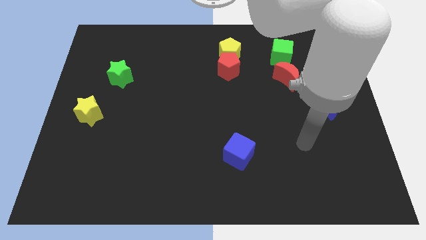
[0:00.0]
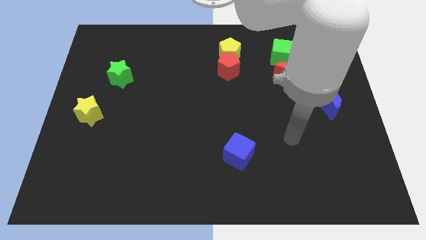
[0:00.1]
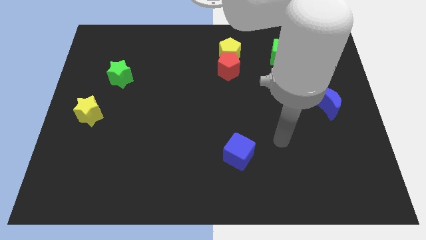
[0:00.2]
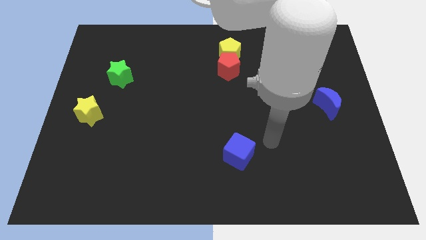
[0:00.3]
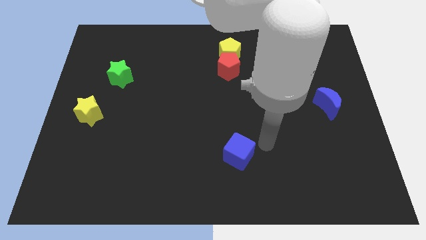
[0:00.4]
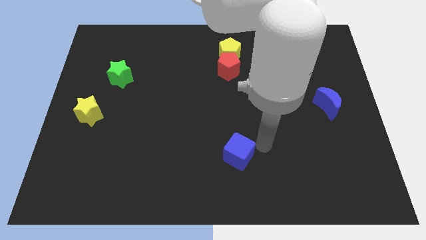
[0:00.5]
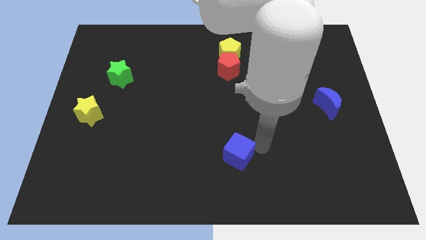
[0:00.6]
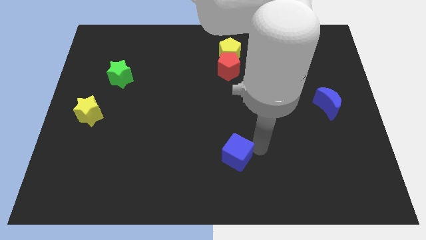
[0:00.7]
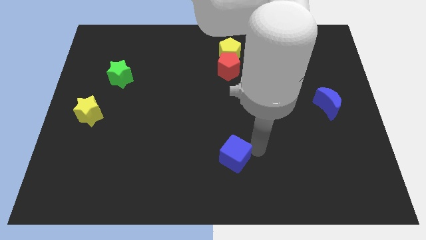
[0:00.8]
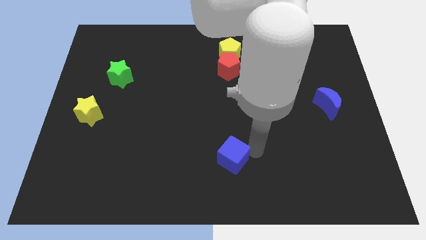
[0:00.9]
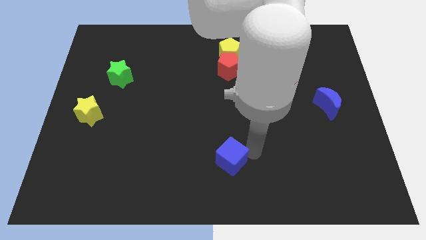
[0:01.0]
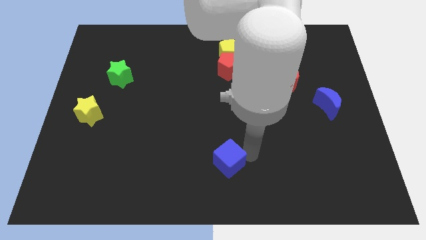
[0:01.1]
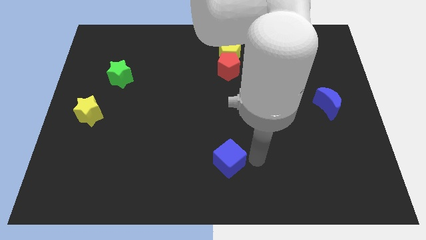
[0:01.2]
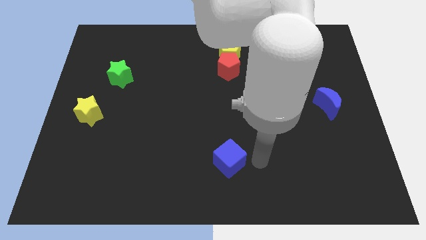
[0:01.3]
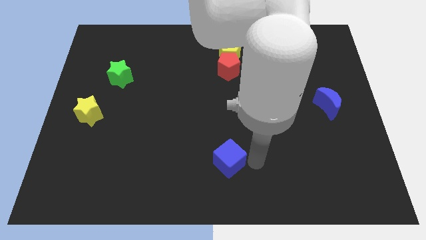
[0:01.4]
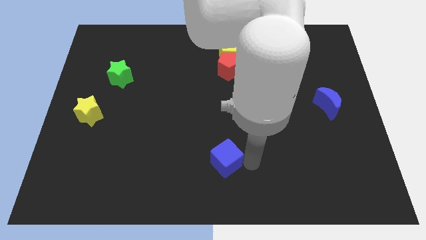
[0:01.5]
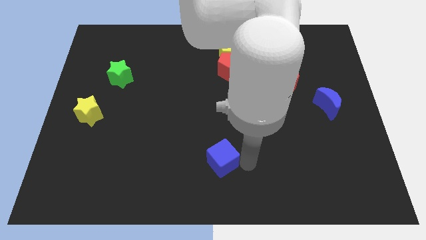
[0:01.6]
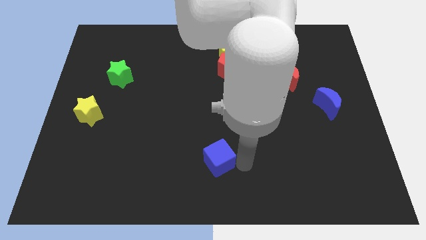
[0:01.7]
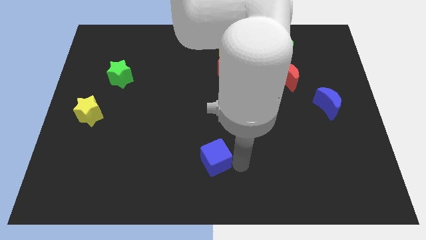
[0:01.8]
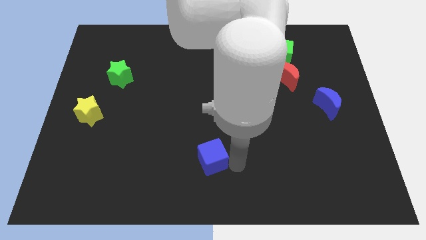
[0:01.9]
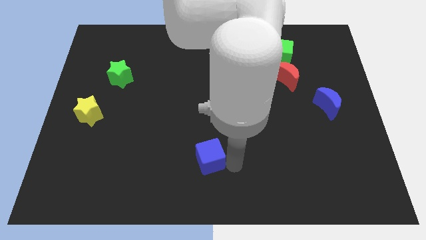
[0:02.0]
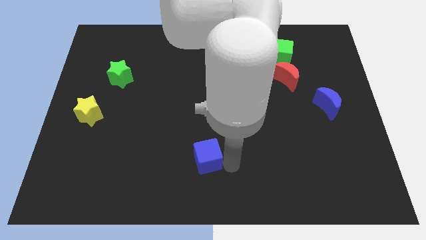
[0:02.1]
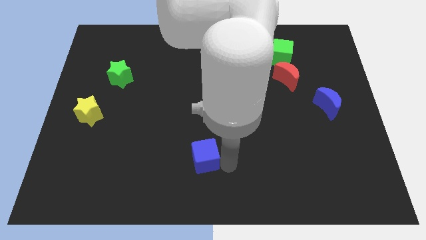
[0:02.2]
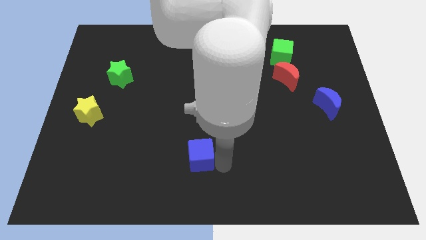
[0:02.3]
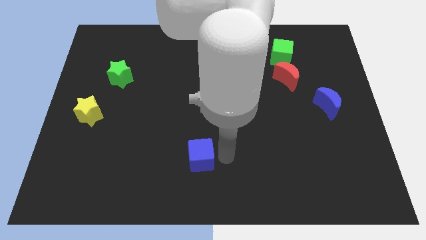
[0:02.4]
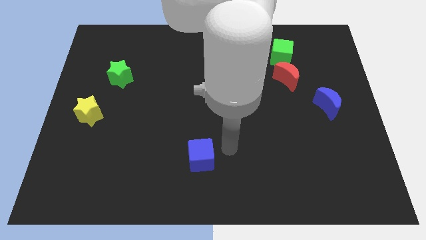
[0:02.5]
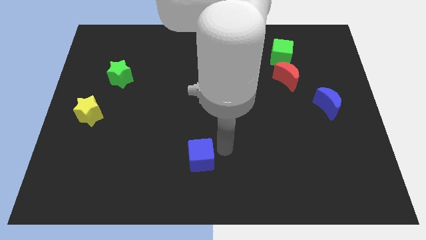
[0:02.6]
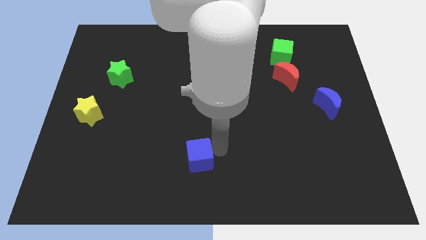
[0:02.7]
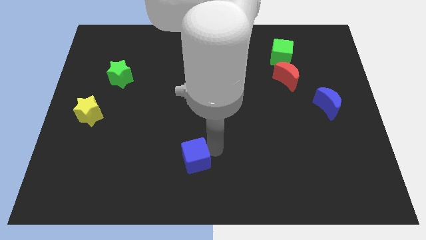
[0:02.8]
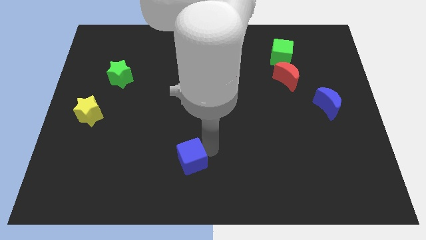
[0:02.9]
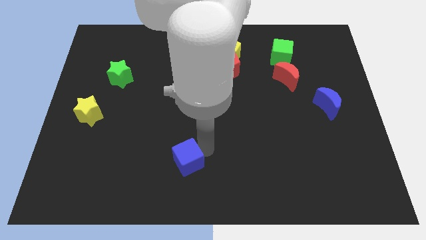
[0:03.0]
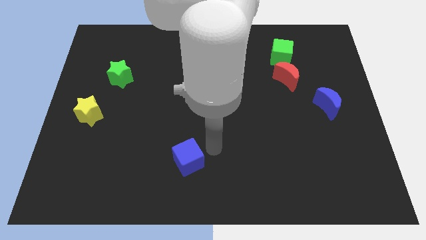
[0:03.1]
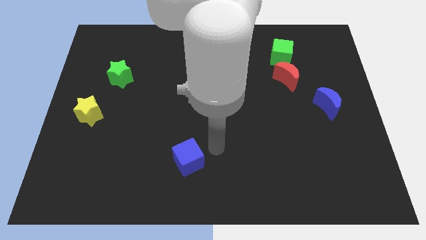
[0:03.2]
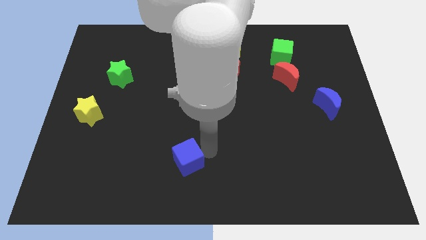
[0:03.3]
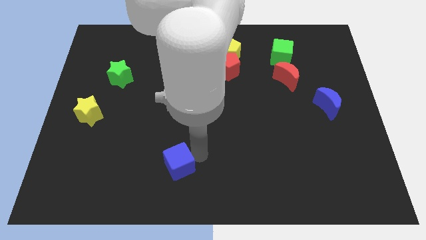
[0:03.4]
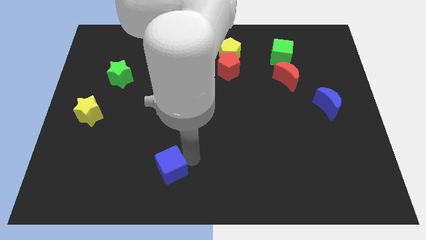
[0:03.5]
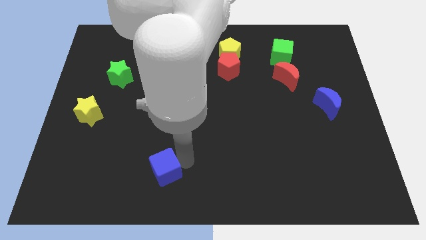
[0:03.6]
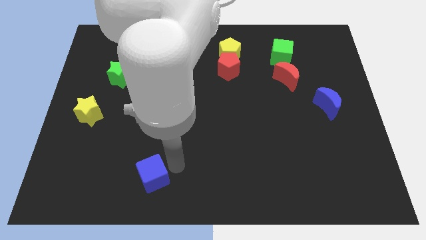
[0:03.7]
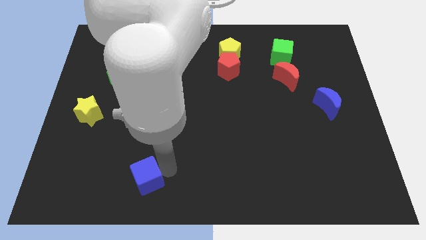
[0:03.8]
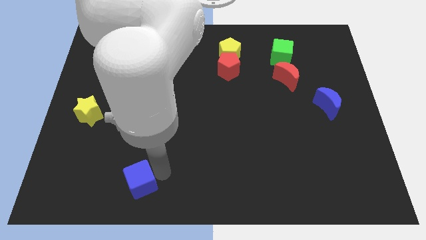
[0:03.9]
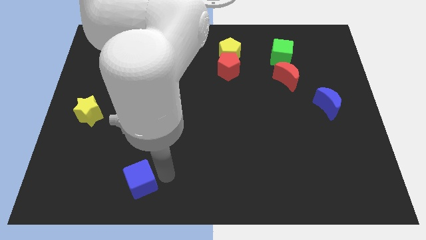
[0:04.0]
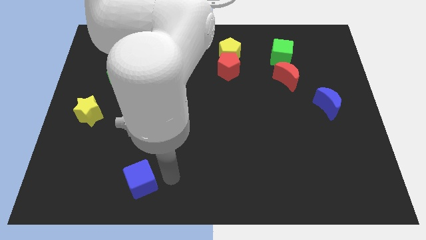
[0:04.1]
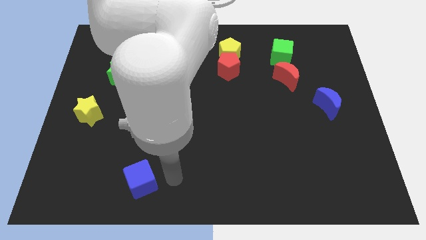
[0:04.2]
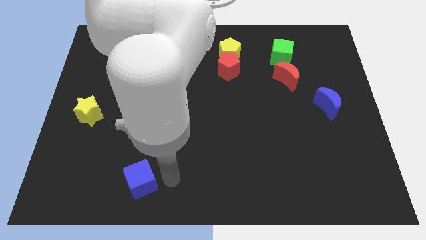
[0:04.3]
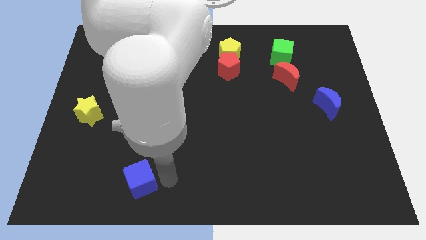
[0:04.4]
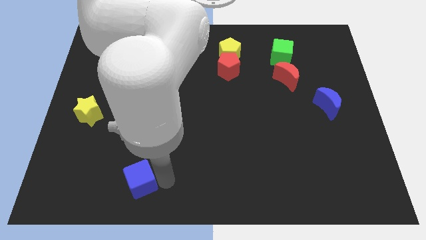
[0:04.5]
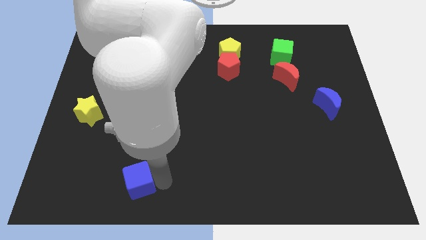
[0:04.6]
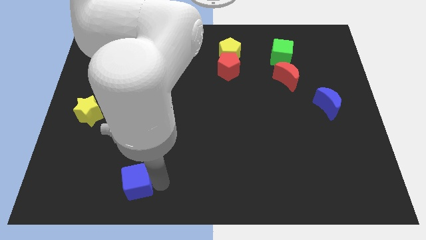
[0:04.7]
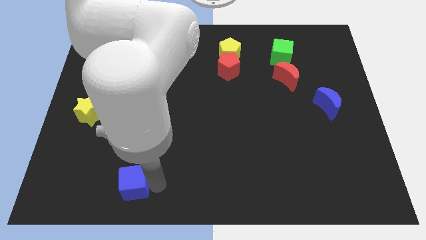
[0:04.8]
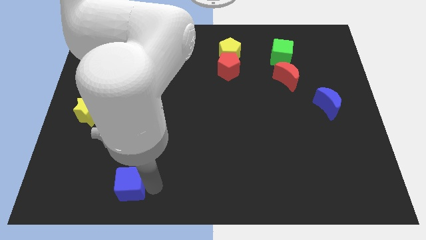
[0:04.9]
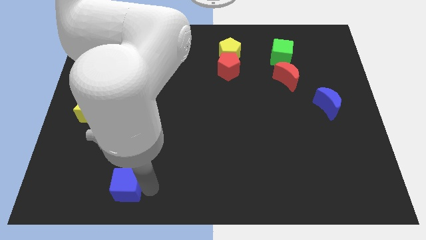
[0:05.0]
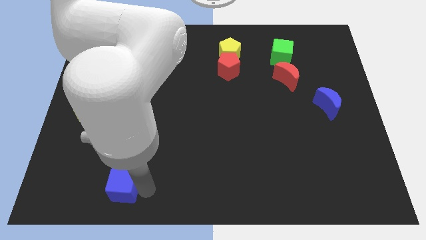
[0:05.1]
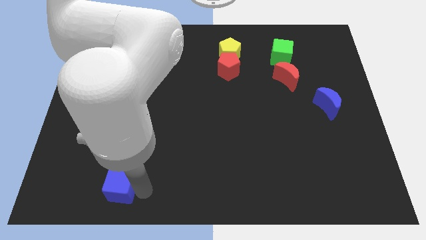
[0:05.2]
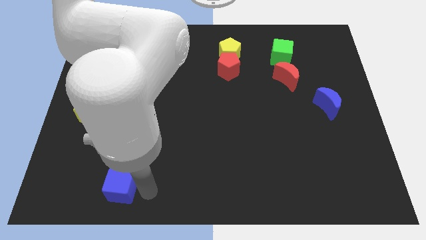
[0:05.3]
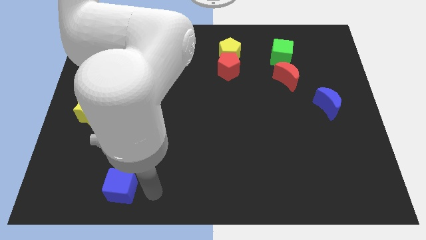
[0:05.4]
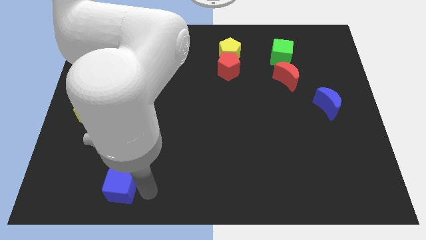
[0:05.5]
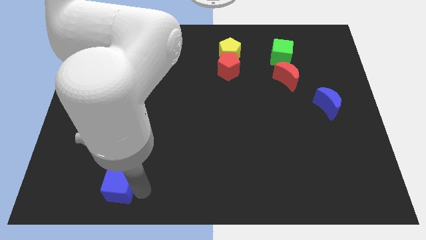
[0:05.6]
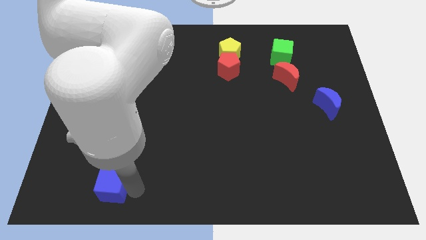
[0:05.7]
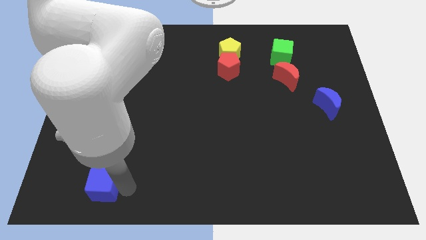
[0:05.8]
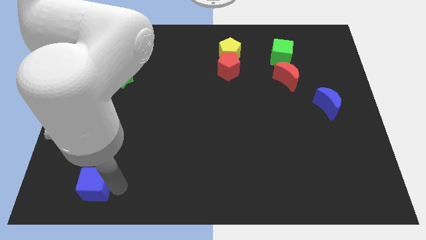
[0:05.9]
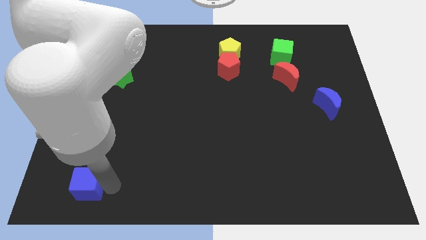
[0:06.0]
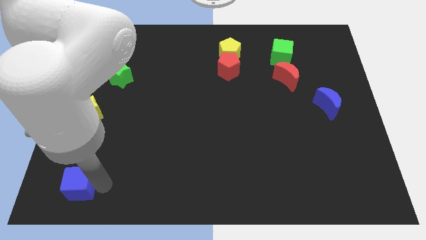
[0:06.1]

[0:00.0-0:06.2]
move the blue cube to the bottom left of the board

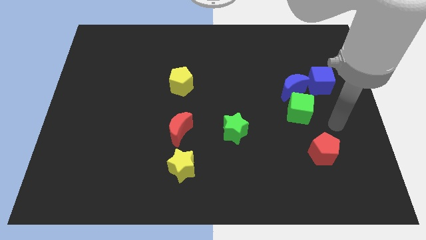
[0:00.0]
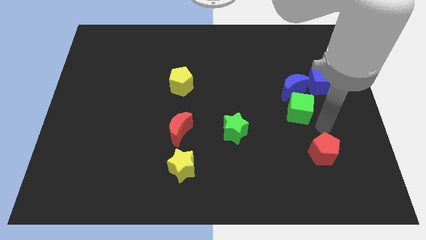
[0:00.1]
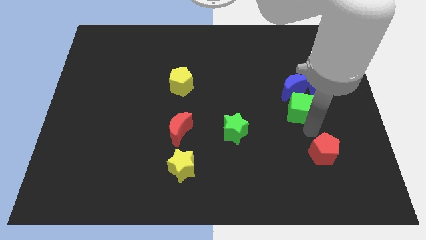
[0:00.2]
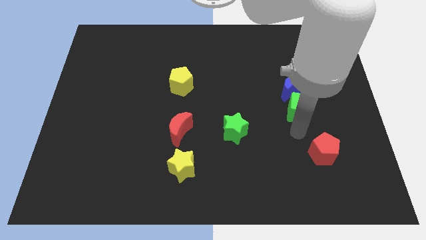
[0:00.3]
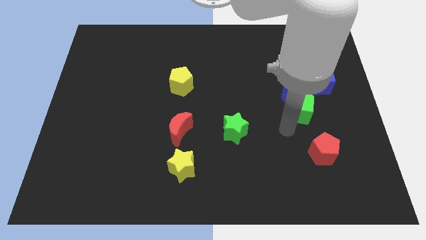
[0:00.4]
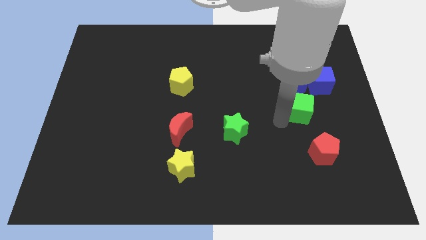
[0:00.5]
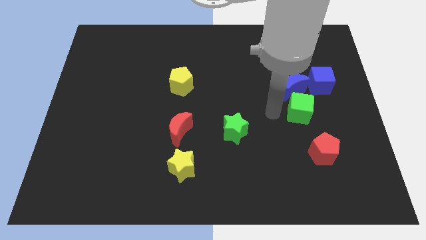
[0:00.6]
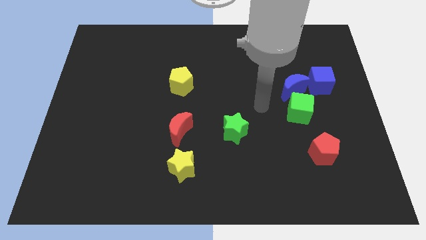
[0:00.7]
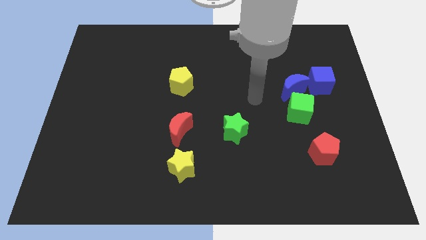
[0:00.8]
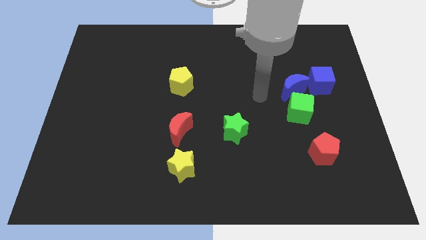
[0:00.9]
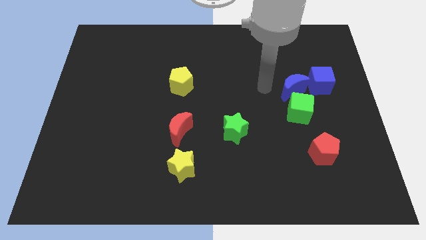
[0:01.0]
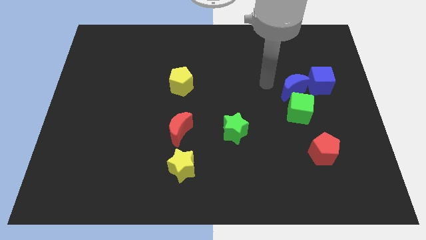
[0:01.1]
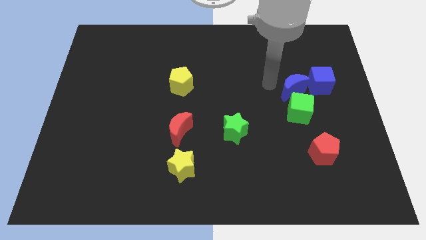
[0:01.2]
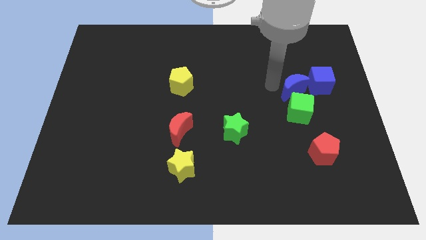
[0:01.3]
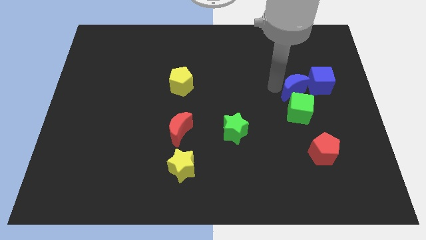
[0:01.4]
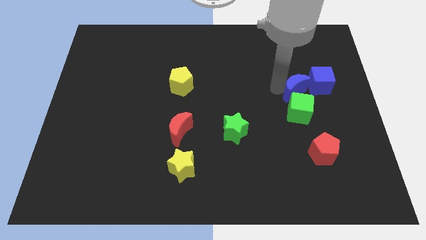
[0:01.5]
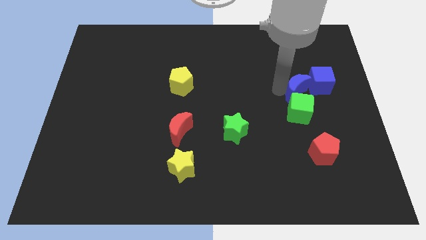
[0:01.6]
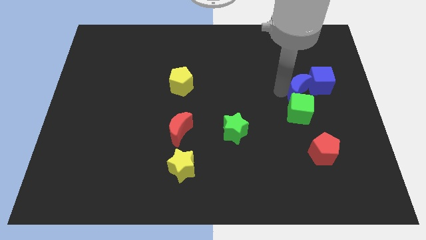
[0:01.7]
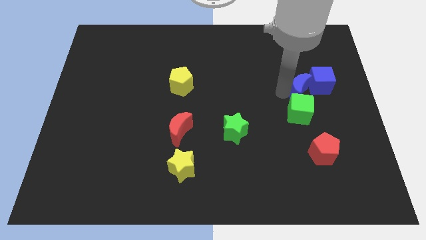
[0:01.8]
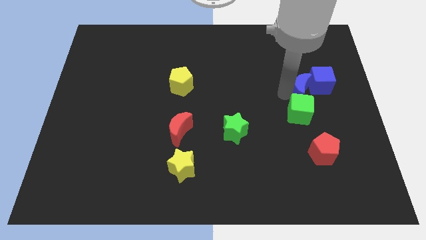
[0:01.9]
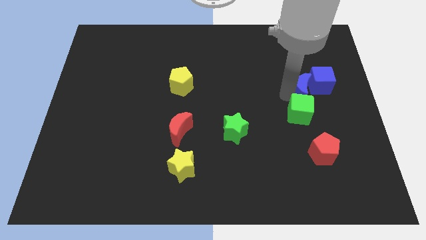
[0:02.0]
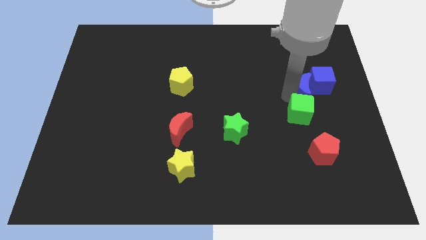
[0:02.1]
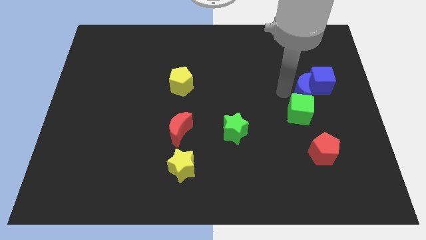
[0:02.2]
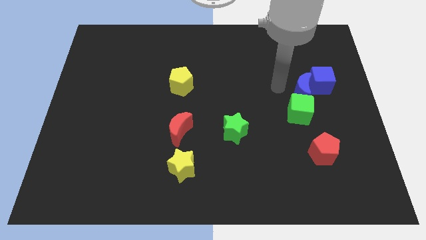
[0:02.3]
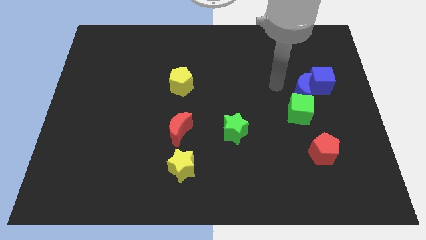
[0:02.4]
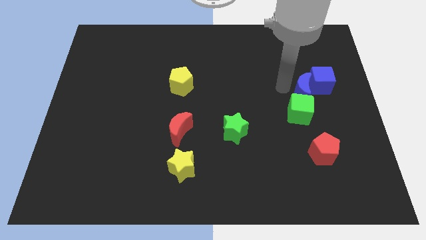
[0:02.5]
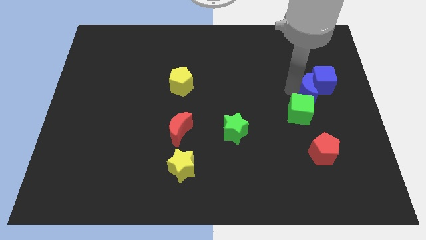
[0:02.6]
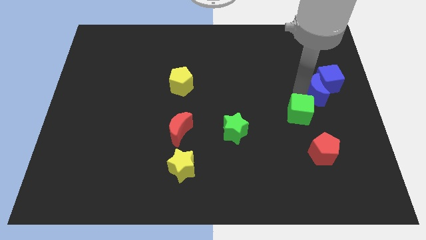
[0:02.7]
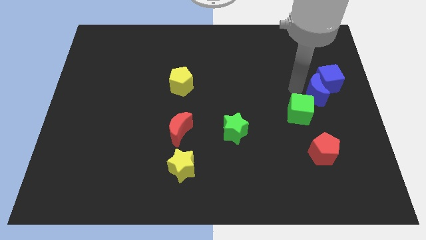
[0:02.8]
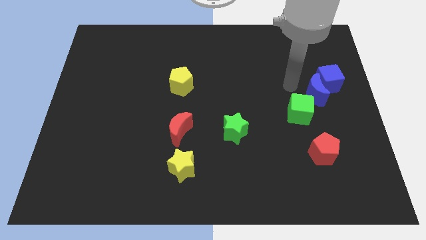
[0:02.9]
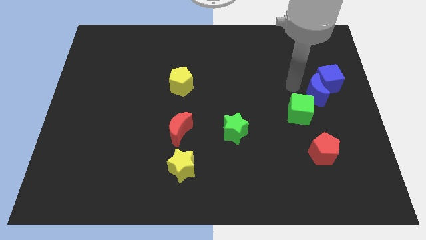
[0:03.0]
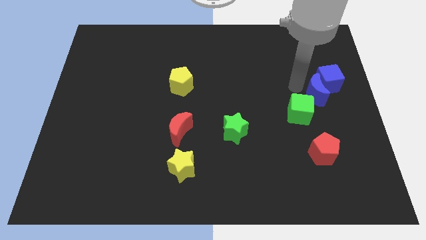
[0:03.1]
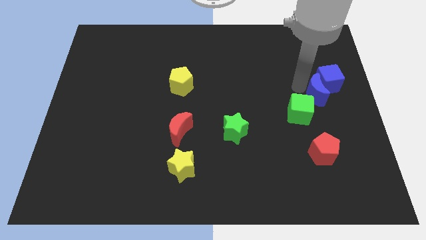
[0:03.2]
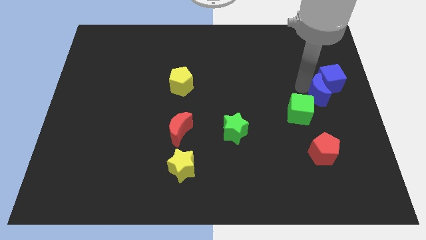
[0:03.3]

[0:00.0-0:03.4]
push the blue moon to the right side
